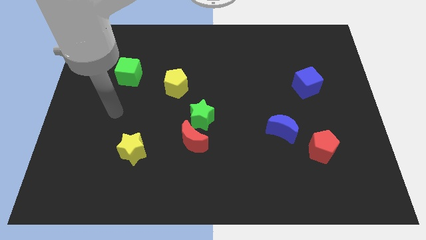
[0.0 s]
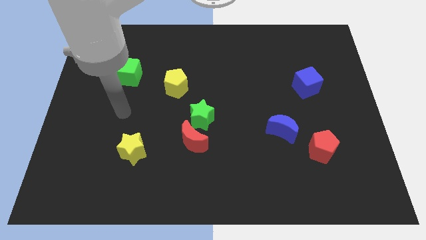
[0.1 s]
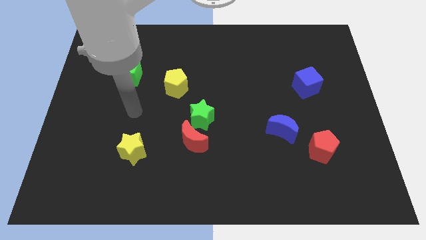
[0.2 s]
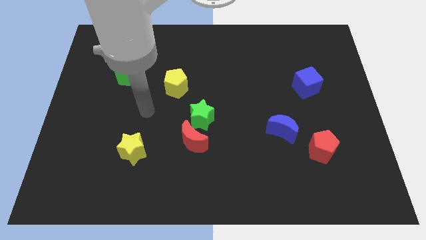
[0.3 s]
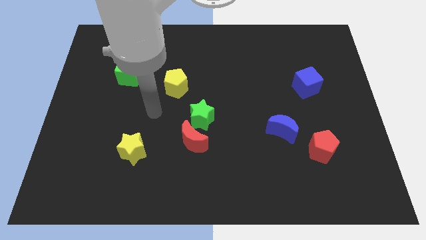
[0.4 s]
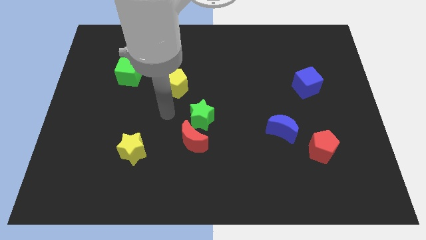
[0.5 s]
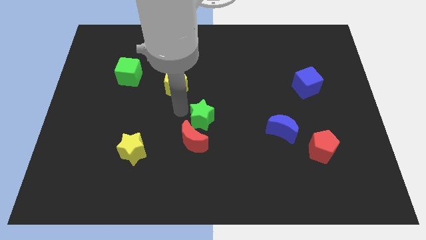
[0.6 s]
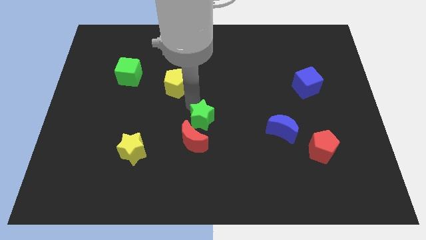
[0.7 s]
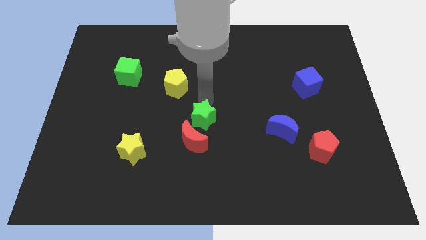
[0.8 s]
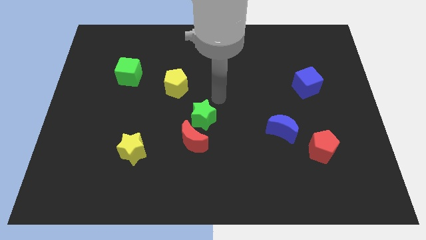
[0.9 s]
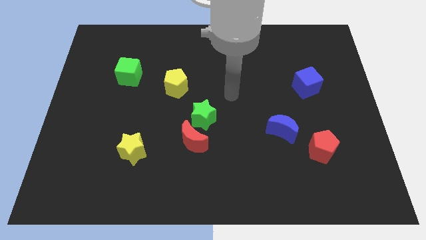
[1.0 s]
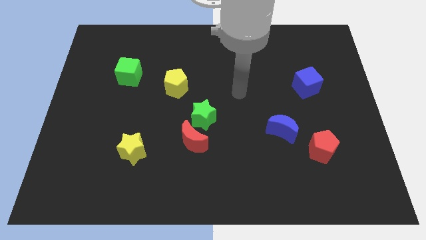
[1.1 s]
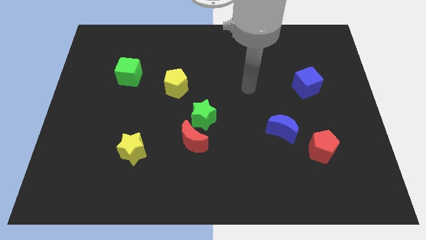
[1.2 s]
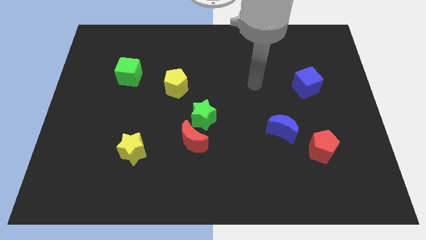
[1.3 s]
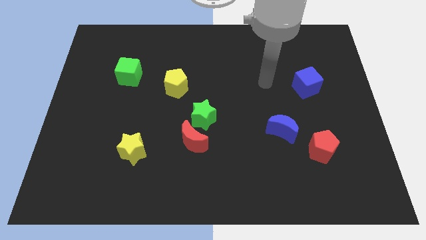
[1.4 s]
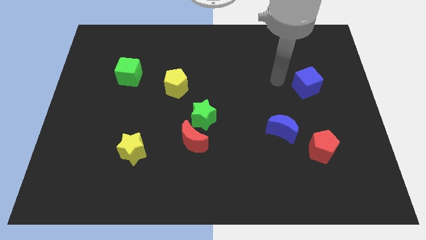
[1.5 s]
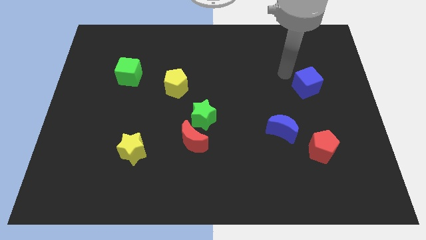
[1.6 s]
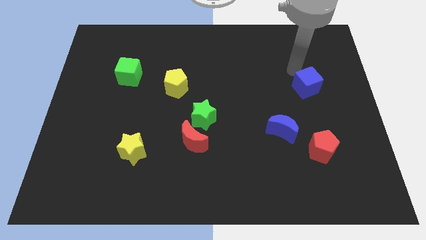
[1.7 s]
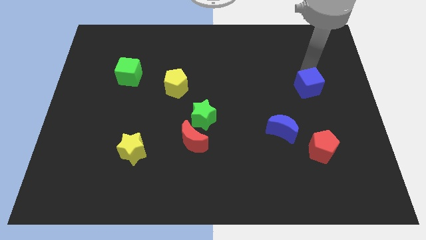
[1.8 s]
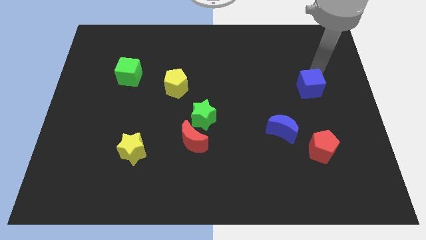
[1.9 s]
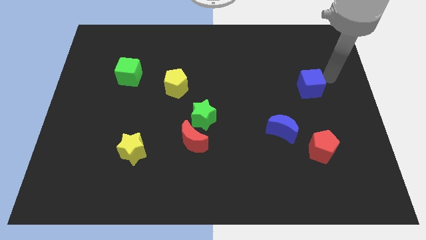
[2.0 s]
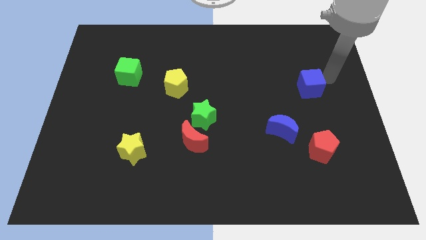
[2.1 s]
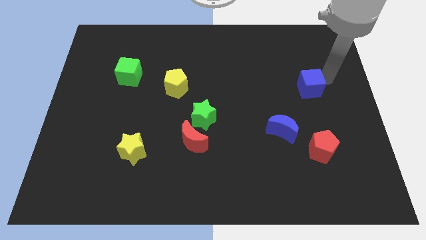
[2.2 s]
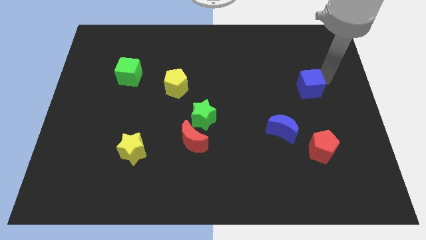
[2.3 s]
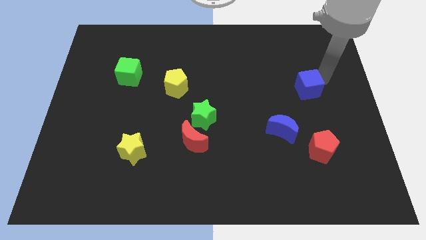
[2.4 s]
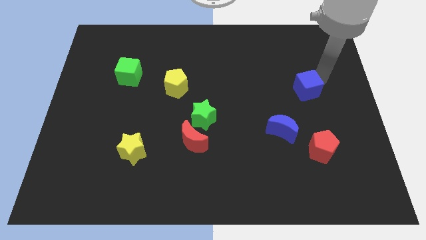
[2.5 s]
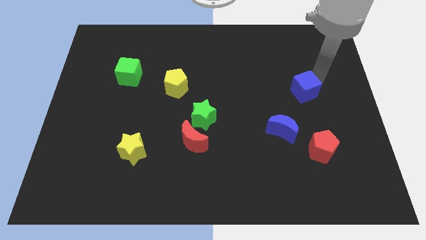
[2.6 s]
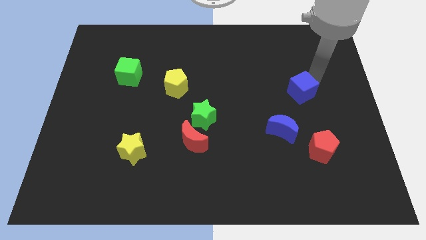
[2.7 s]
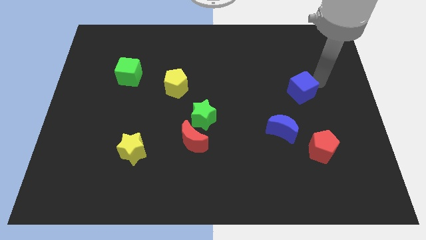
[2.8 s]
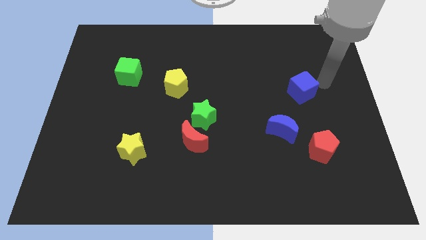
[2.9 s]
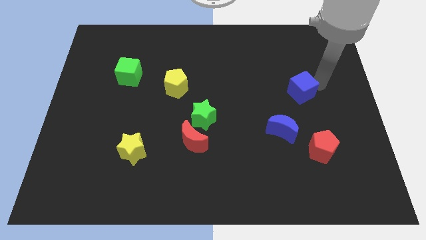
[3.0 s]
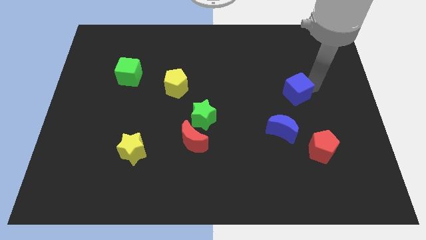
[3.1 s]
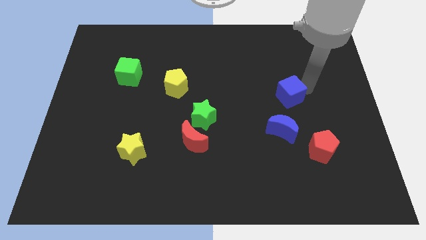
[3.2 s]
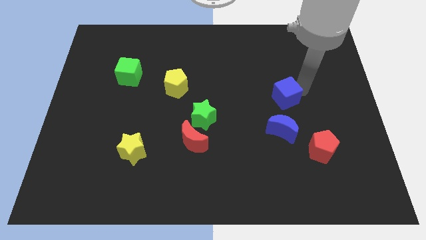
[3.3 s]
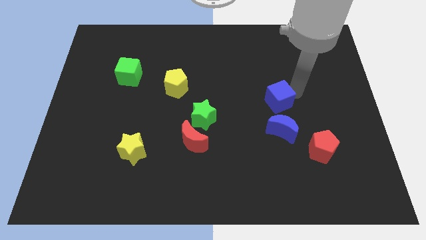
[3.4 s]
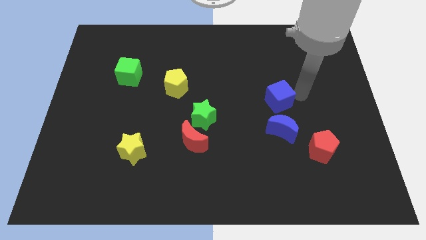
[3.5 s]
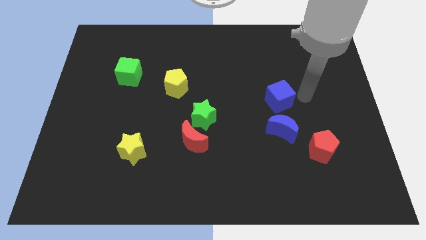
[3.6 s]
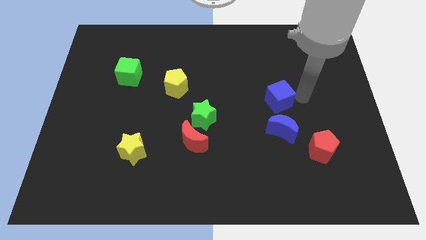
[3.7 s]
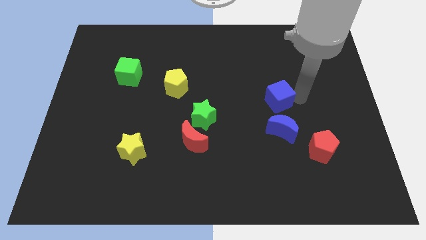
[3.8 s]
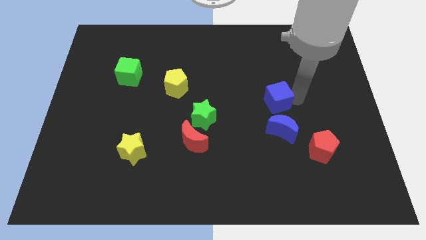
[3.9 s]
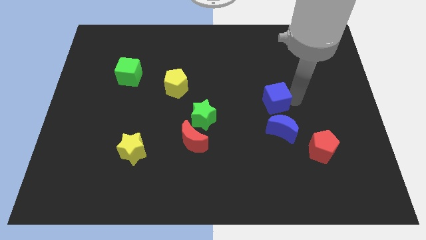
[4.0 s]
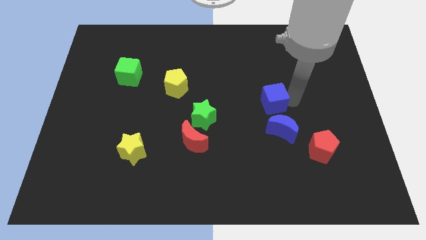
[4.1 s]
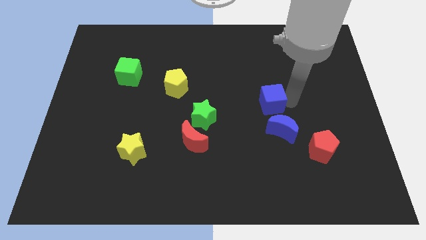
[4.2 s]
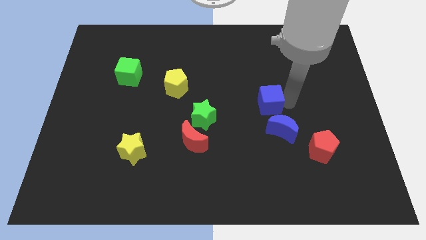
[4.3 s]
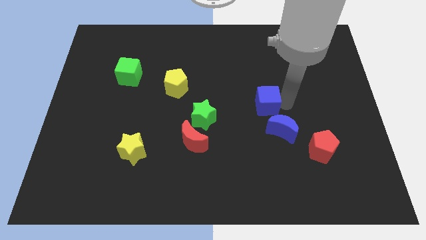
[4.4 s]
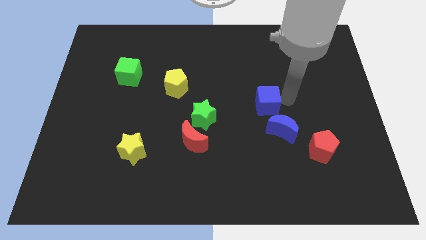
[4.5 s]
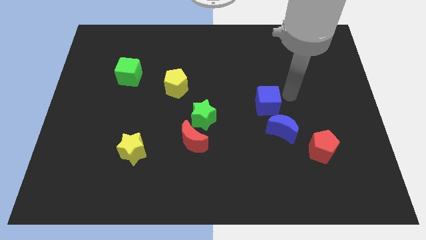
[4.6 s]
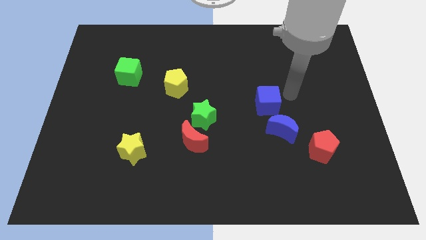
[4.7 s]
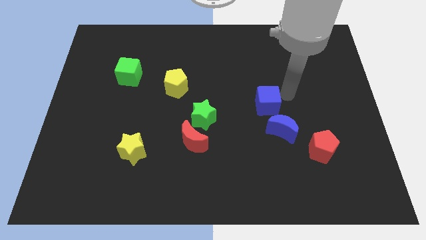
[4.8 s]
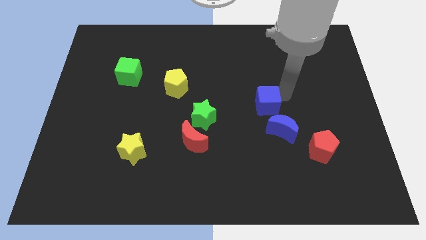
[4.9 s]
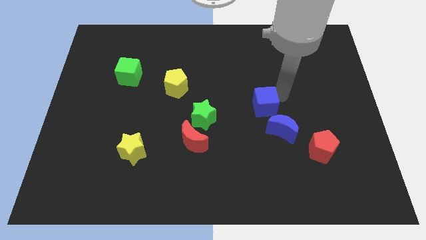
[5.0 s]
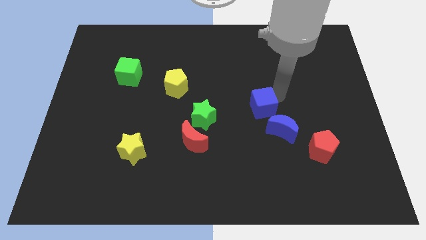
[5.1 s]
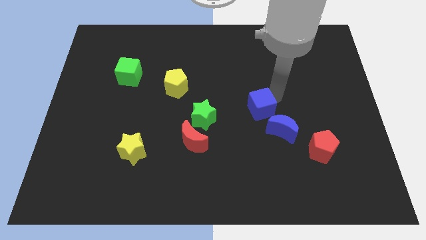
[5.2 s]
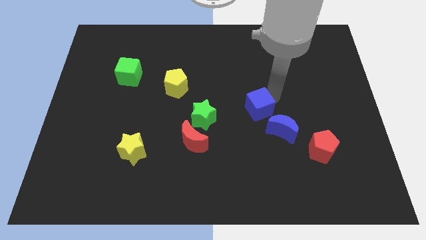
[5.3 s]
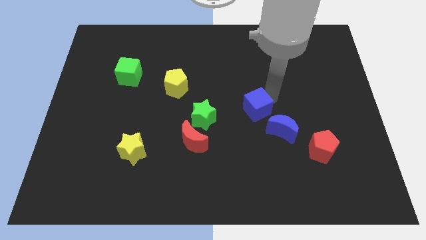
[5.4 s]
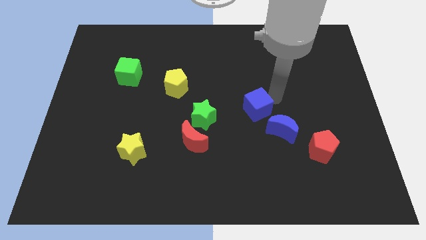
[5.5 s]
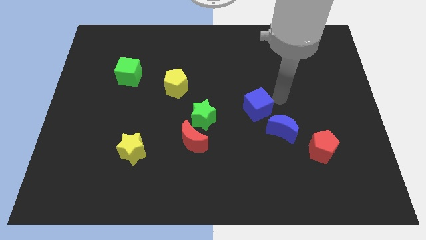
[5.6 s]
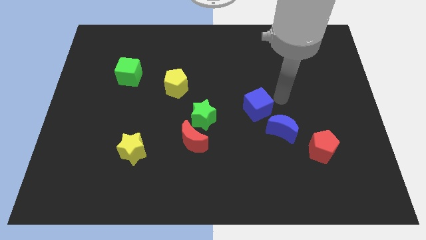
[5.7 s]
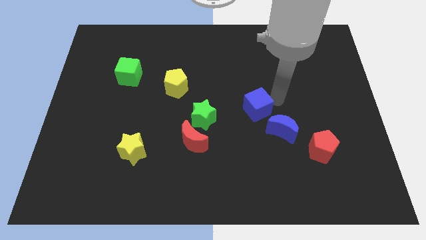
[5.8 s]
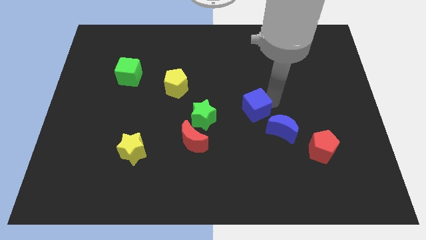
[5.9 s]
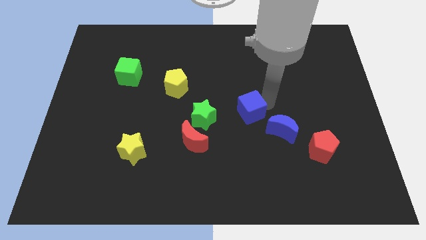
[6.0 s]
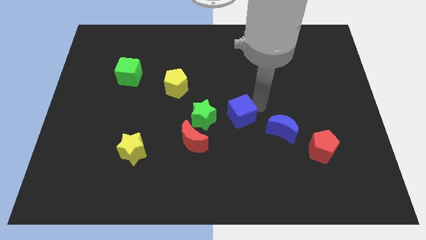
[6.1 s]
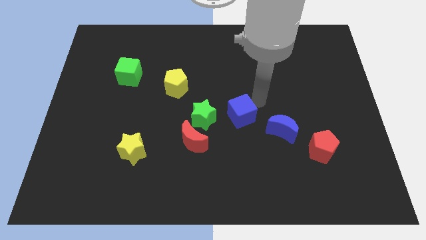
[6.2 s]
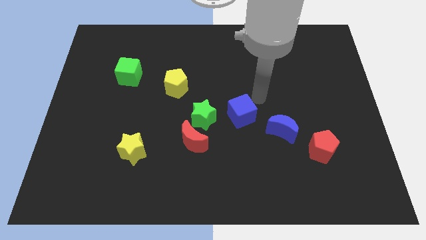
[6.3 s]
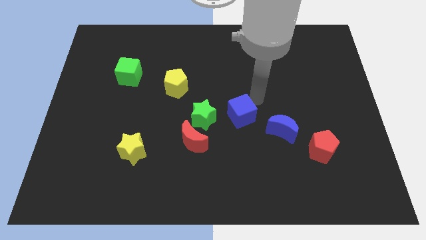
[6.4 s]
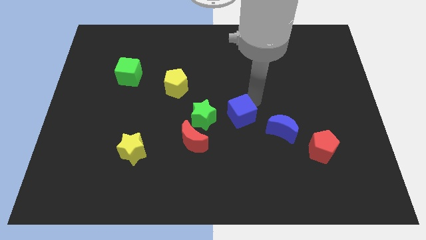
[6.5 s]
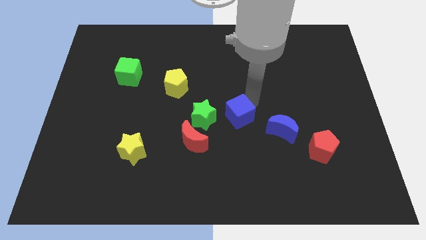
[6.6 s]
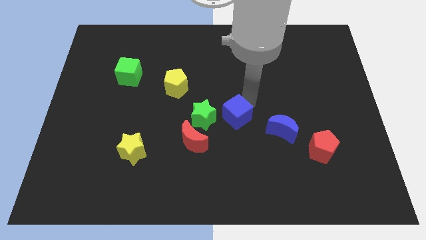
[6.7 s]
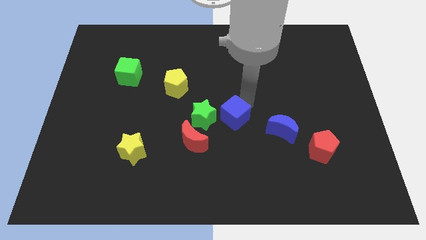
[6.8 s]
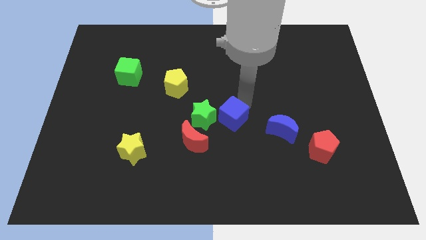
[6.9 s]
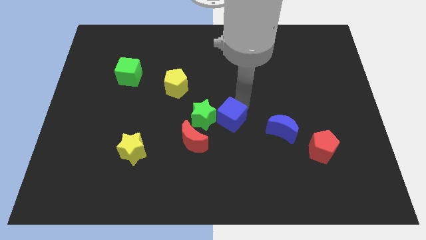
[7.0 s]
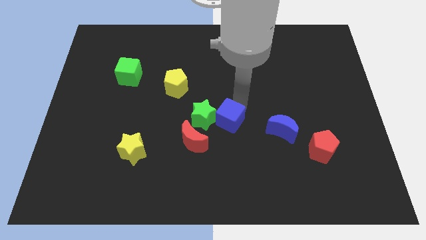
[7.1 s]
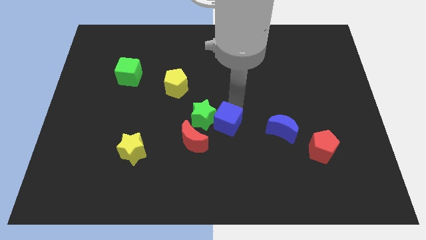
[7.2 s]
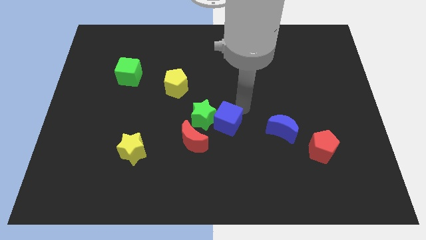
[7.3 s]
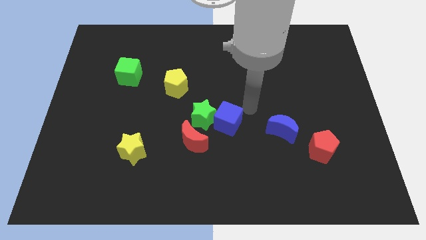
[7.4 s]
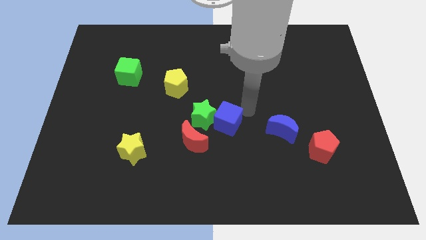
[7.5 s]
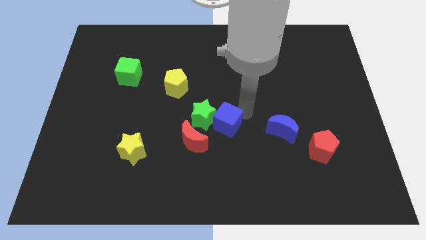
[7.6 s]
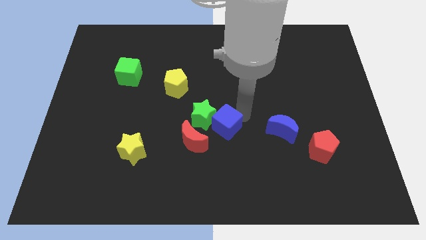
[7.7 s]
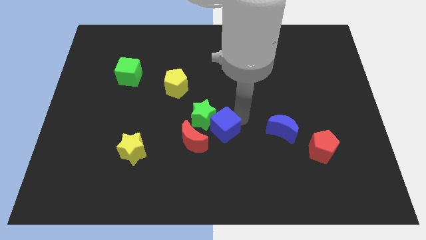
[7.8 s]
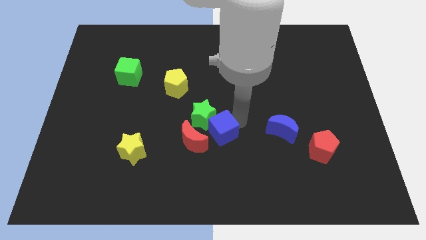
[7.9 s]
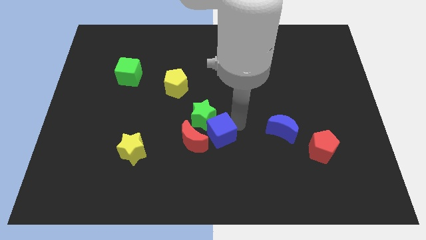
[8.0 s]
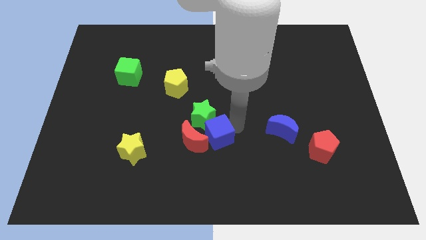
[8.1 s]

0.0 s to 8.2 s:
push the blue cube to the red moon
